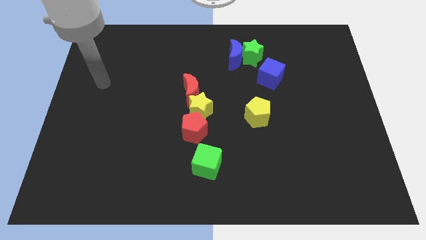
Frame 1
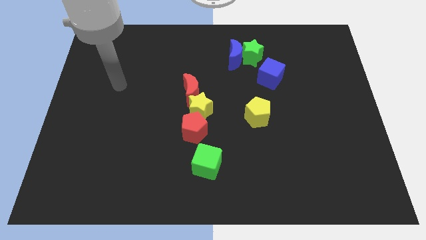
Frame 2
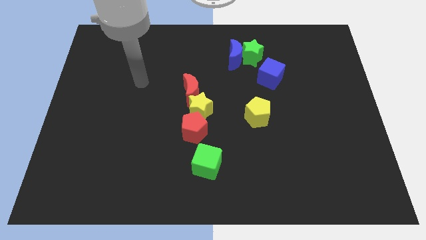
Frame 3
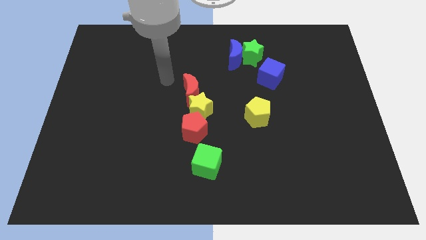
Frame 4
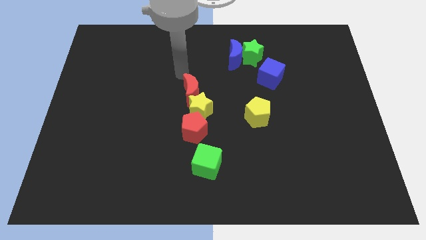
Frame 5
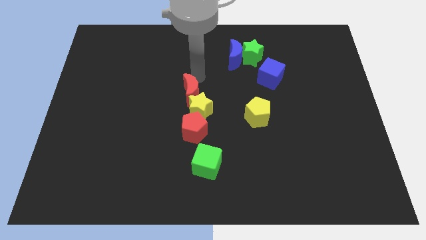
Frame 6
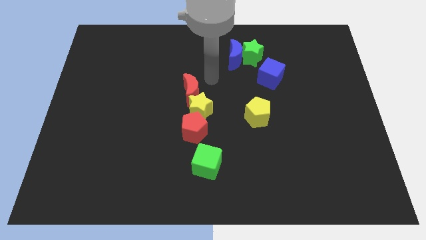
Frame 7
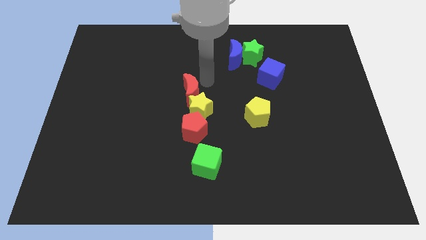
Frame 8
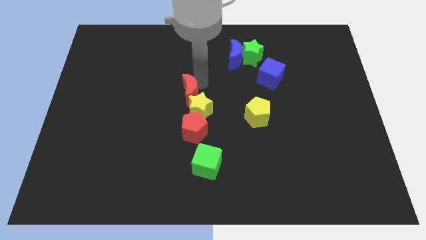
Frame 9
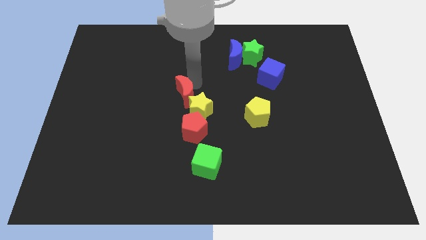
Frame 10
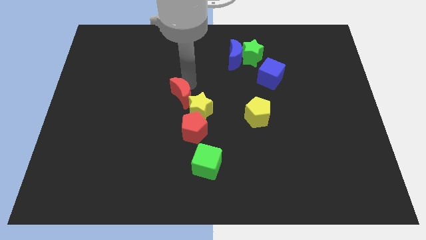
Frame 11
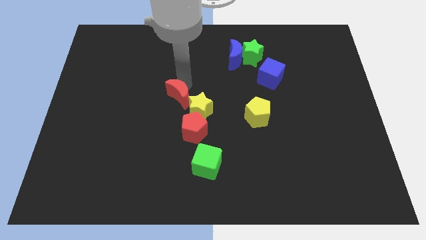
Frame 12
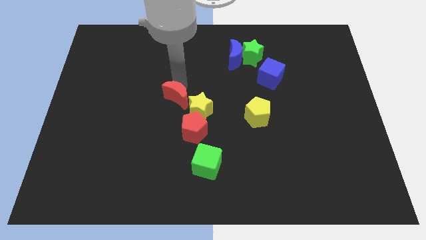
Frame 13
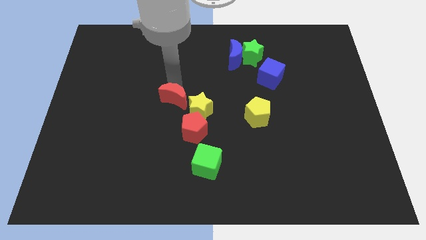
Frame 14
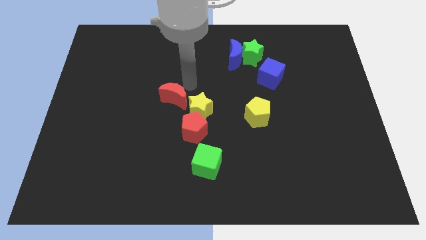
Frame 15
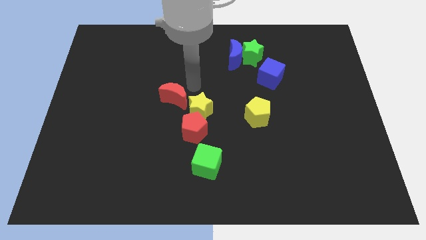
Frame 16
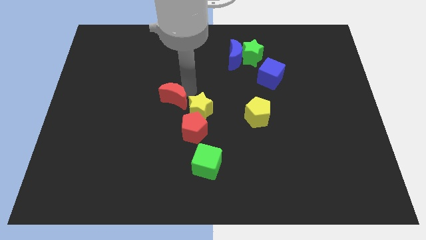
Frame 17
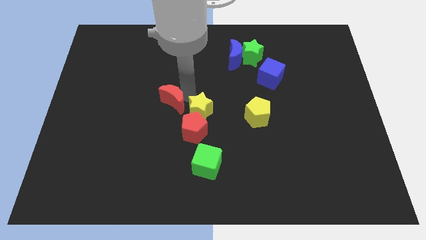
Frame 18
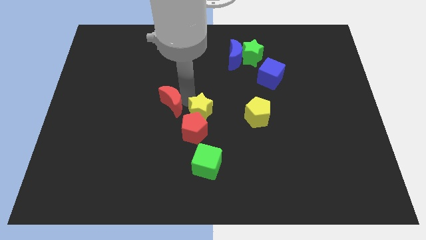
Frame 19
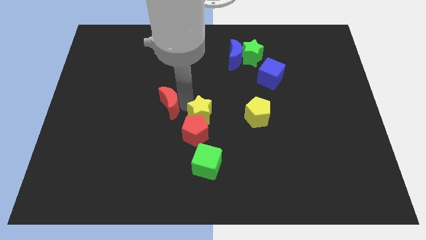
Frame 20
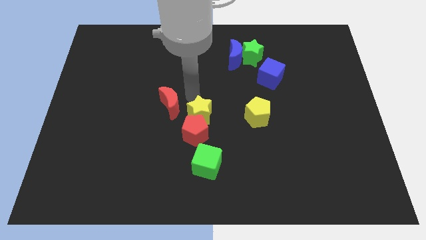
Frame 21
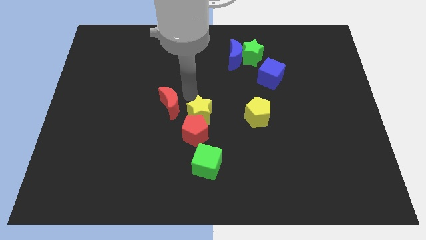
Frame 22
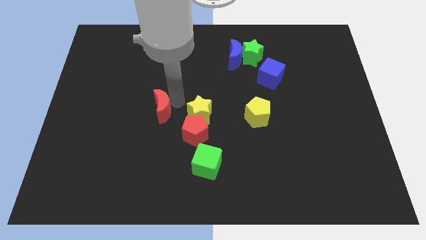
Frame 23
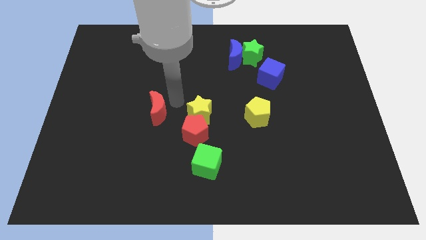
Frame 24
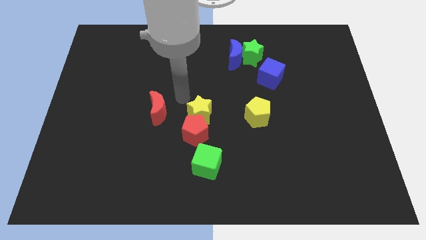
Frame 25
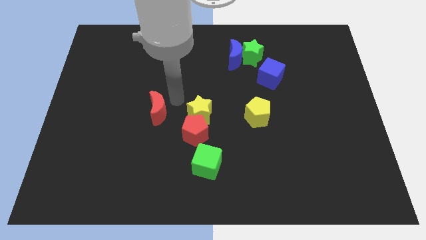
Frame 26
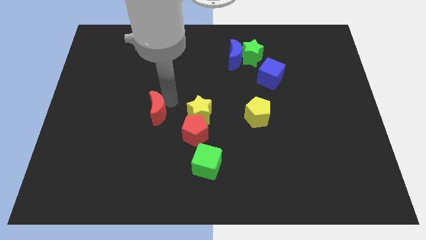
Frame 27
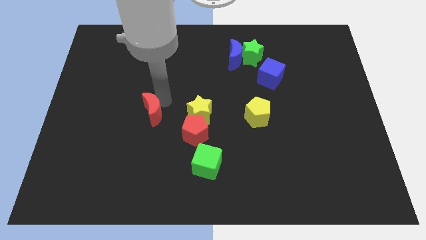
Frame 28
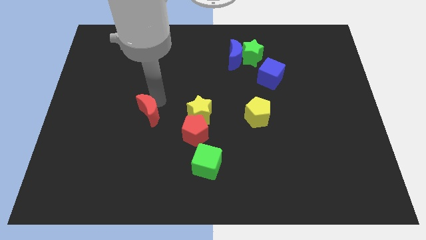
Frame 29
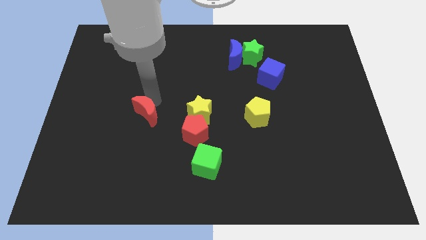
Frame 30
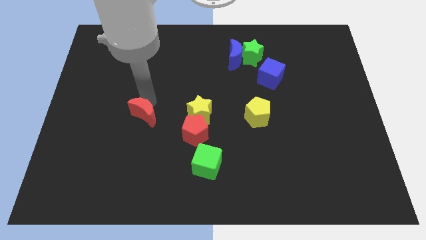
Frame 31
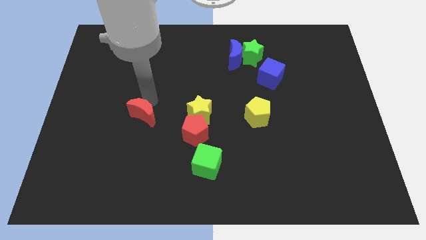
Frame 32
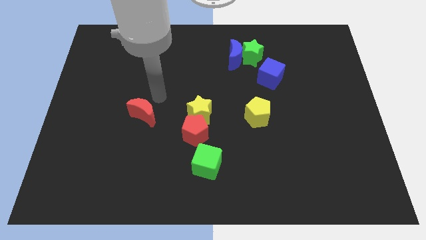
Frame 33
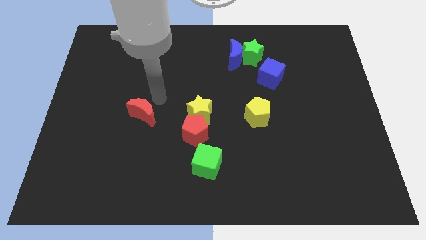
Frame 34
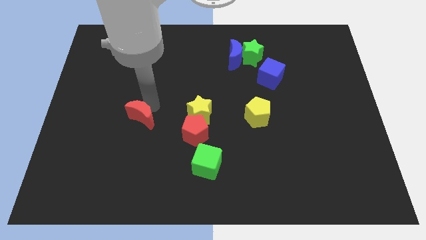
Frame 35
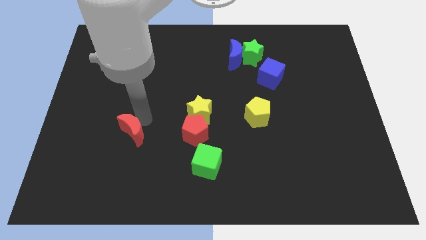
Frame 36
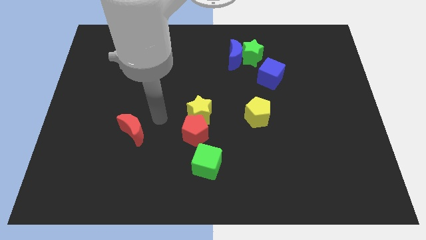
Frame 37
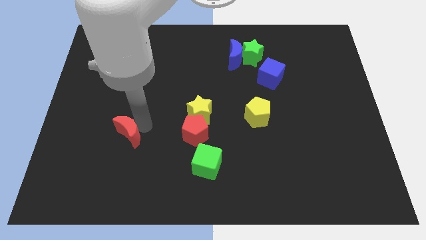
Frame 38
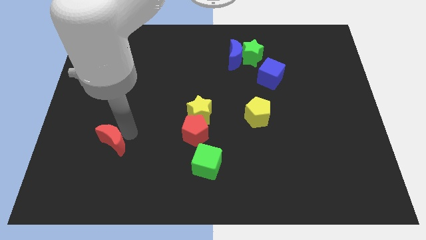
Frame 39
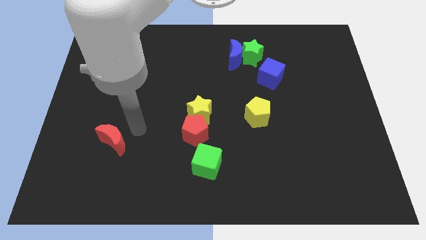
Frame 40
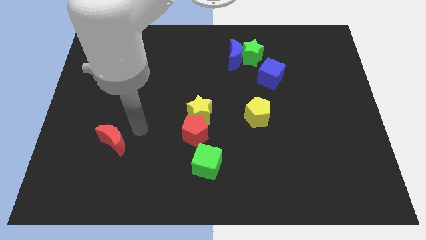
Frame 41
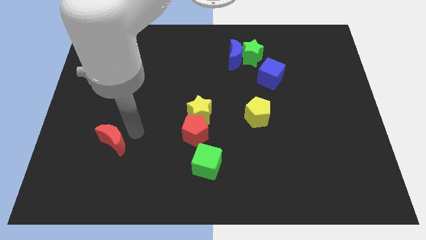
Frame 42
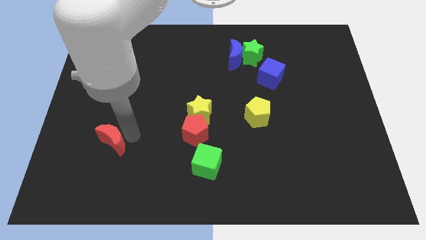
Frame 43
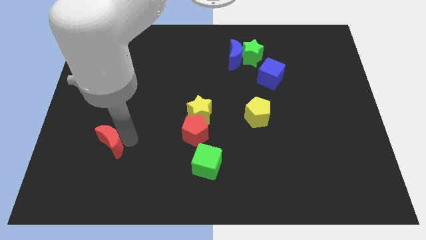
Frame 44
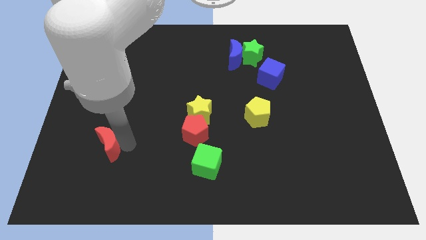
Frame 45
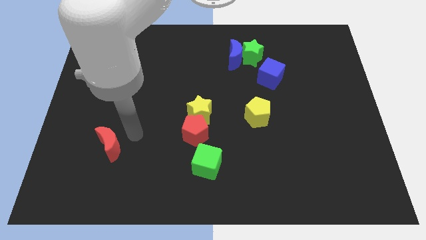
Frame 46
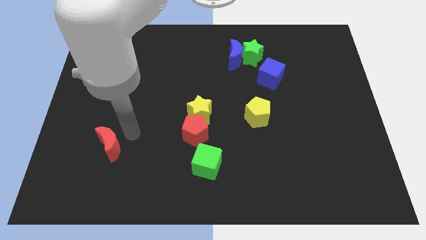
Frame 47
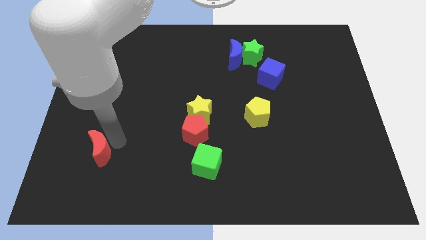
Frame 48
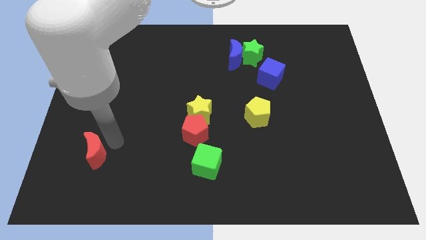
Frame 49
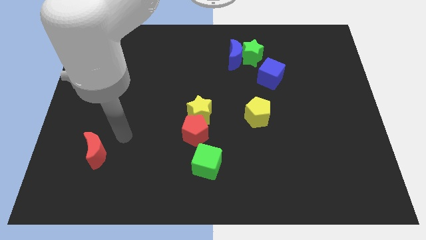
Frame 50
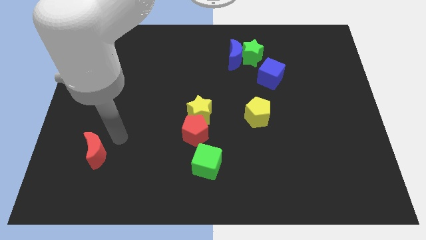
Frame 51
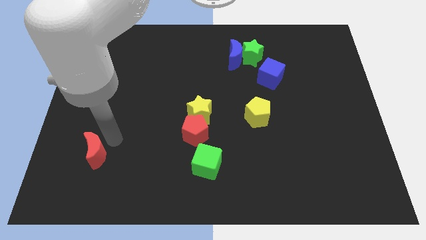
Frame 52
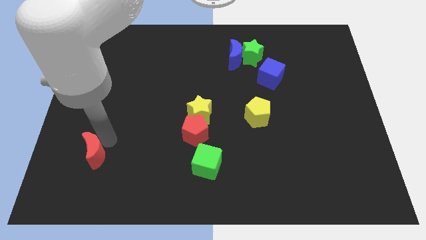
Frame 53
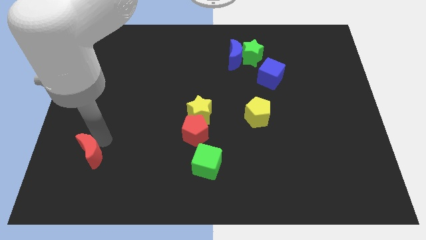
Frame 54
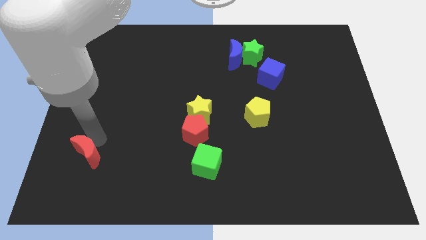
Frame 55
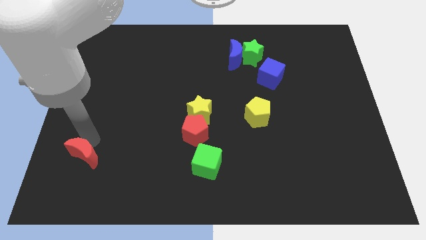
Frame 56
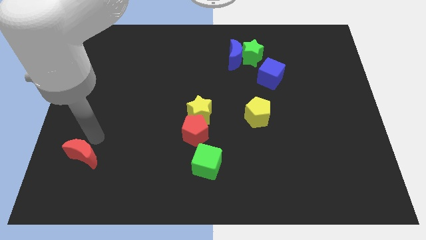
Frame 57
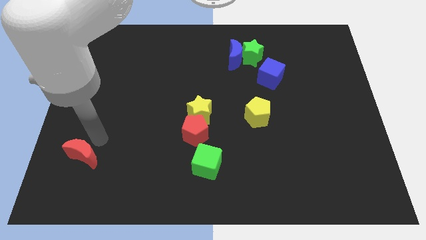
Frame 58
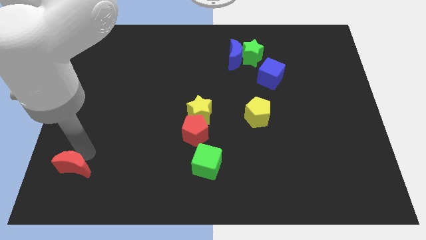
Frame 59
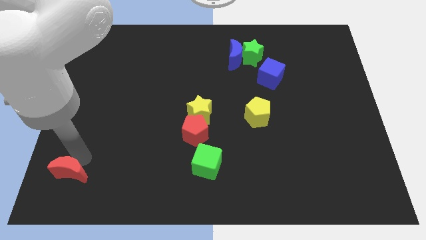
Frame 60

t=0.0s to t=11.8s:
slide the red moon to the bottom left

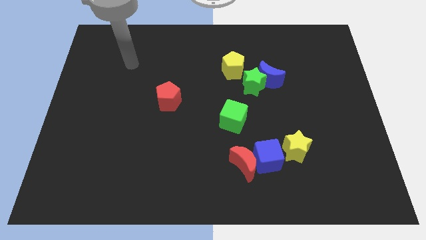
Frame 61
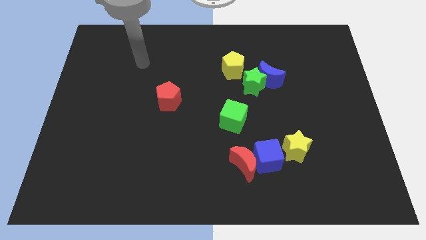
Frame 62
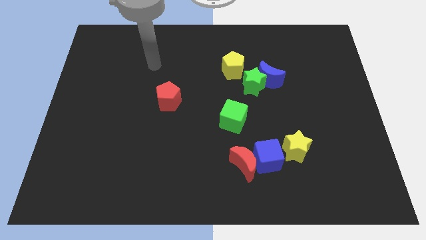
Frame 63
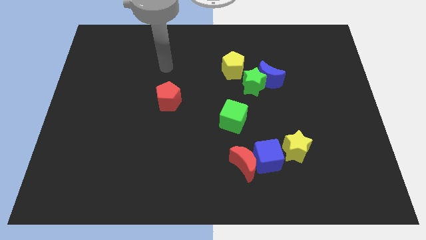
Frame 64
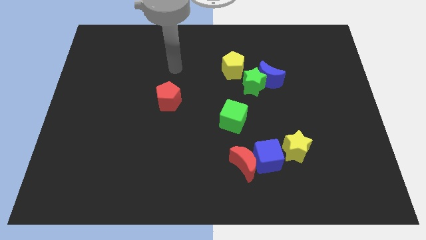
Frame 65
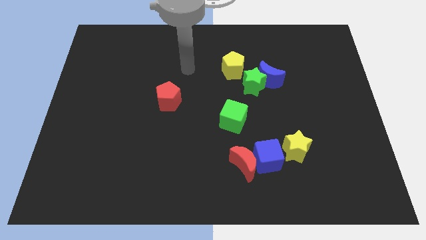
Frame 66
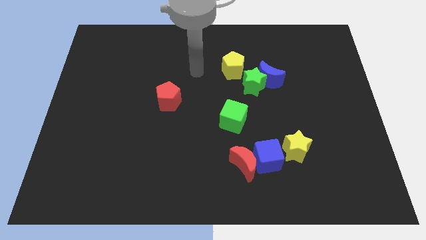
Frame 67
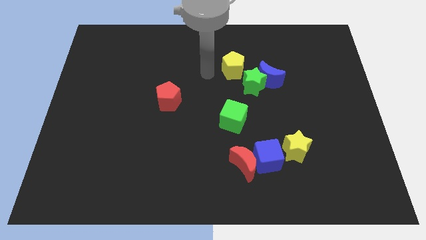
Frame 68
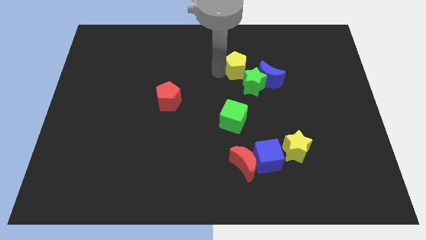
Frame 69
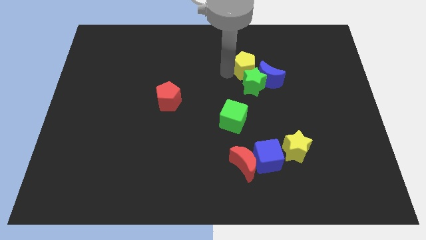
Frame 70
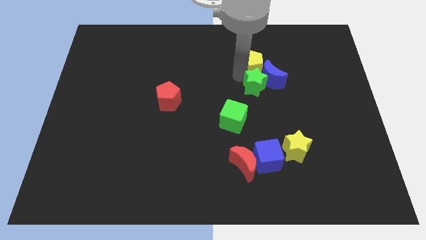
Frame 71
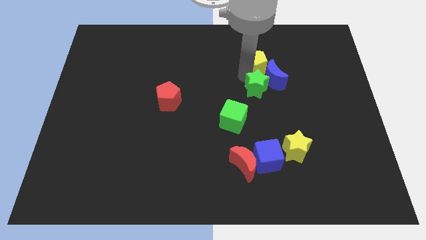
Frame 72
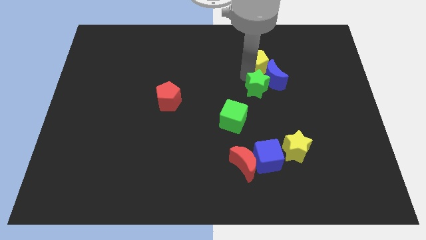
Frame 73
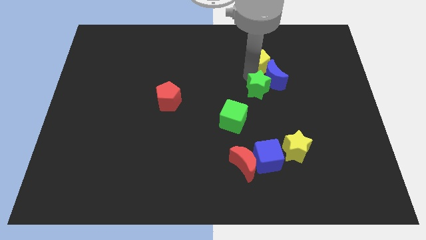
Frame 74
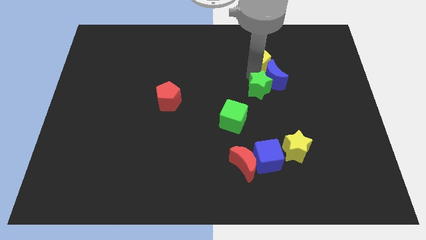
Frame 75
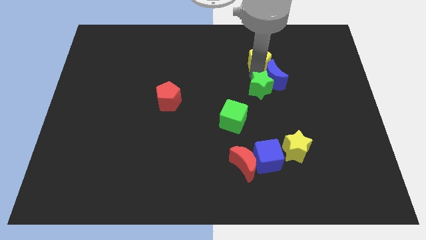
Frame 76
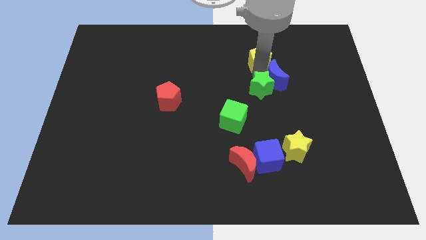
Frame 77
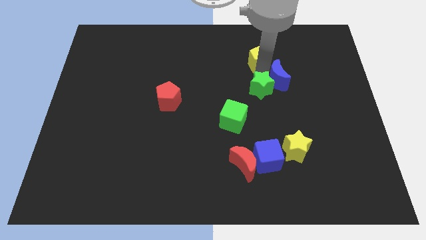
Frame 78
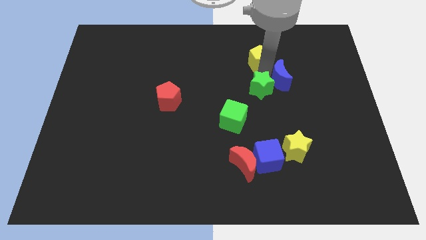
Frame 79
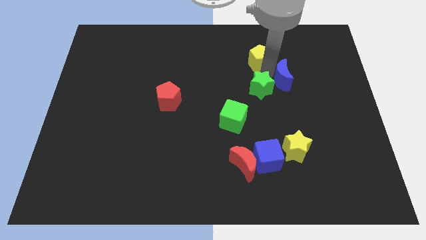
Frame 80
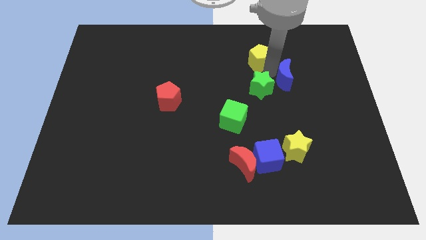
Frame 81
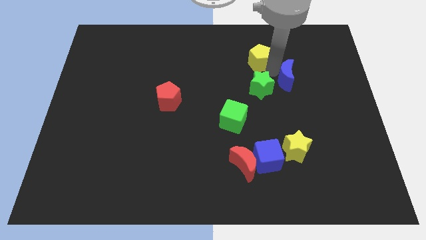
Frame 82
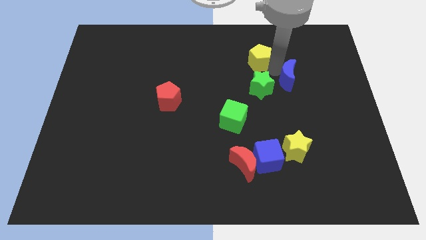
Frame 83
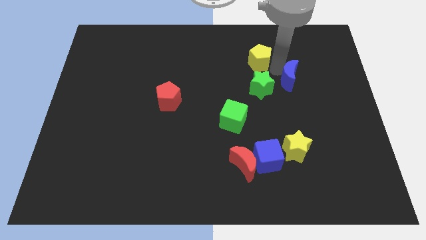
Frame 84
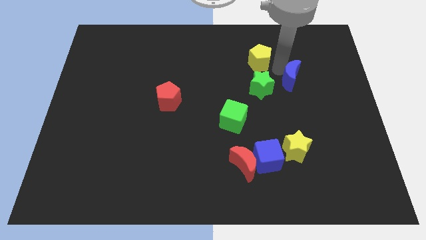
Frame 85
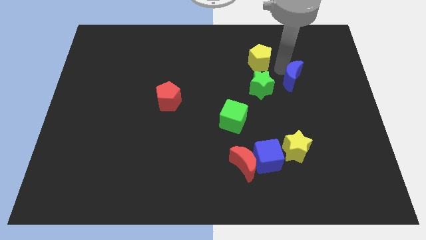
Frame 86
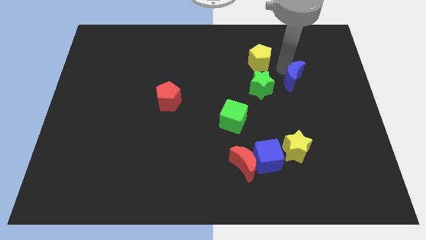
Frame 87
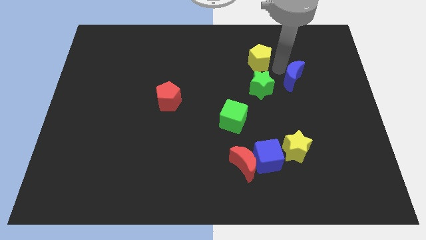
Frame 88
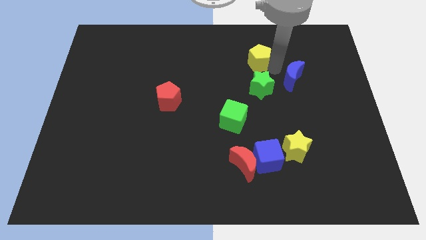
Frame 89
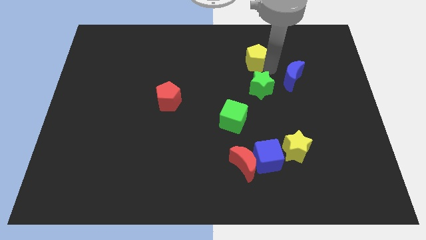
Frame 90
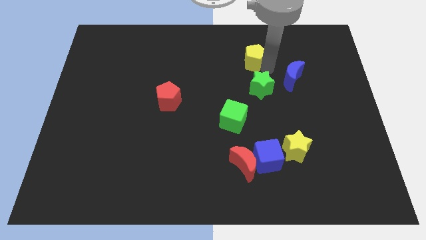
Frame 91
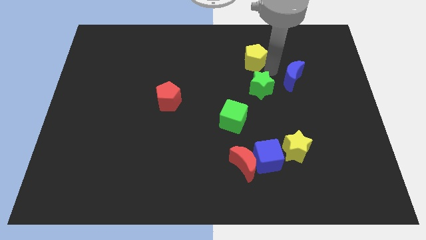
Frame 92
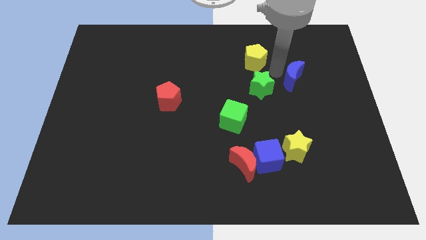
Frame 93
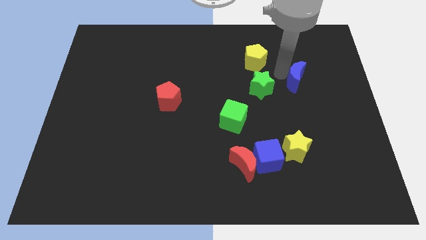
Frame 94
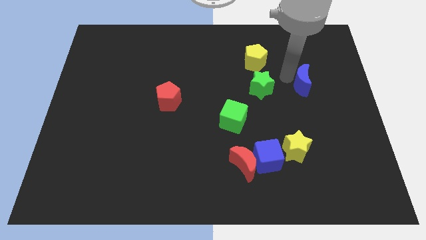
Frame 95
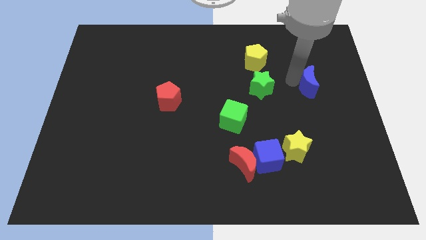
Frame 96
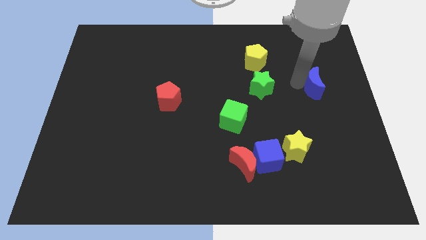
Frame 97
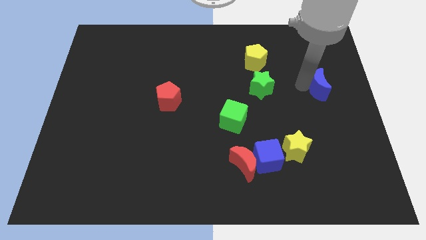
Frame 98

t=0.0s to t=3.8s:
put the blue moon to the right side of the board
